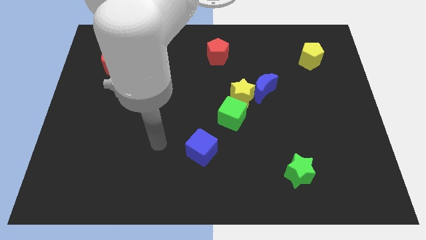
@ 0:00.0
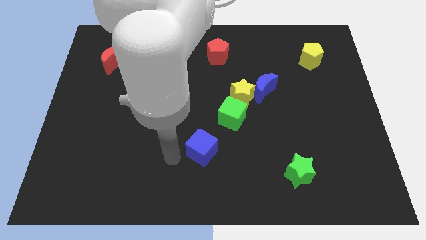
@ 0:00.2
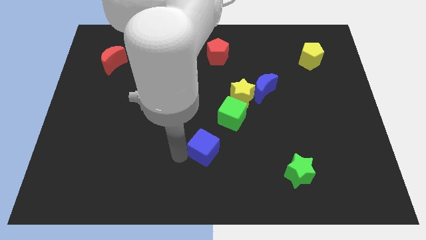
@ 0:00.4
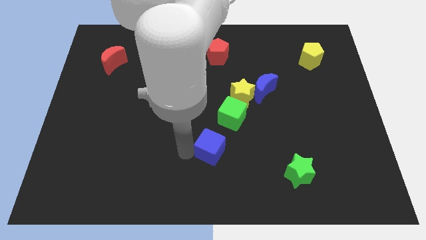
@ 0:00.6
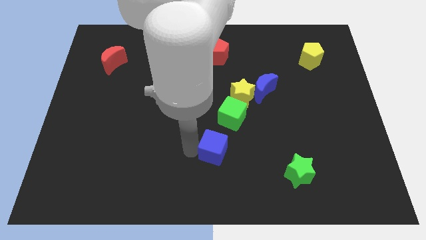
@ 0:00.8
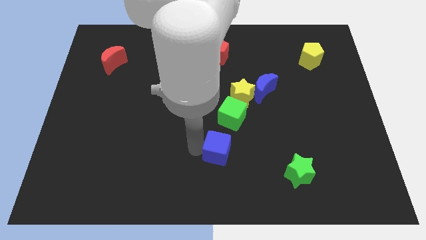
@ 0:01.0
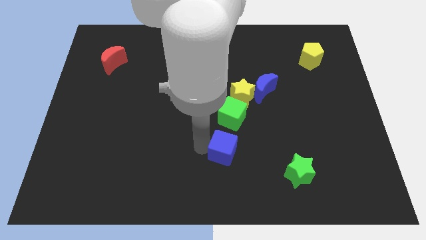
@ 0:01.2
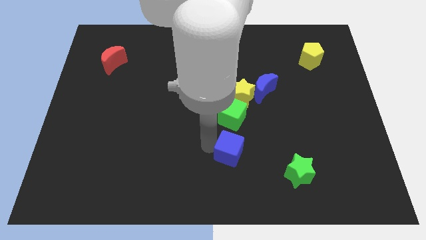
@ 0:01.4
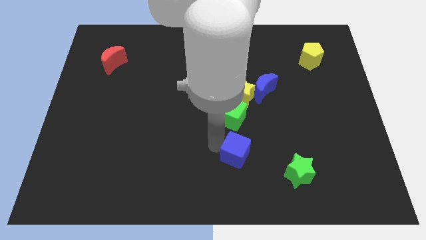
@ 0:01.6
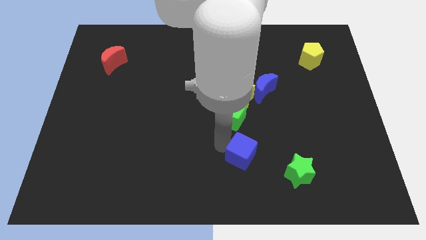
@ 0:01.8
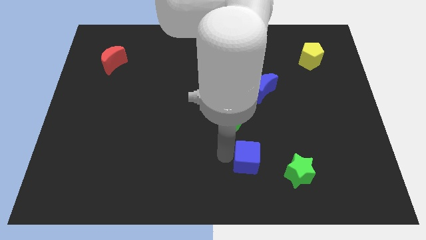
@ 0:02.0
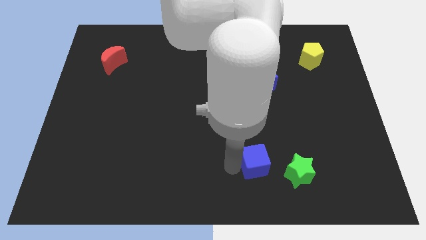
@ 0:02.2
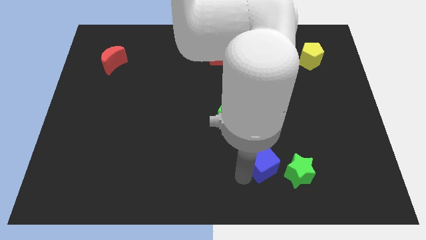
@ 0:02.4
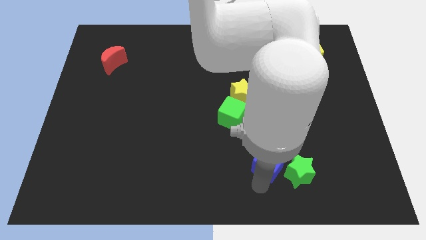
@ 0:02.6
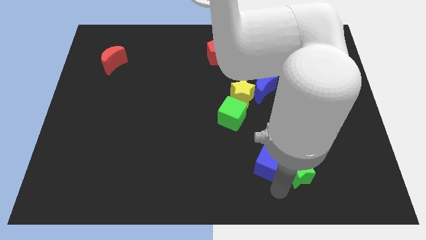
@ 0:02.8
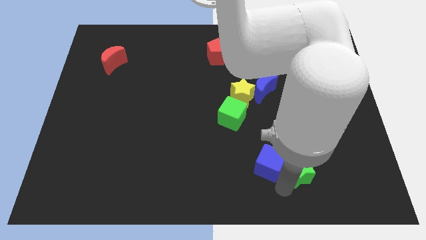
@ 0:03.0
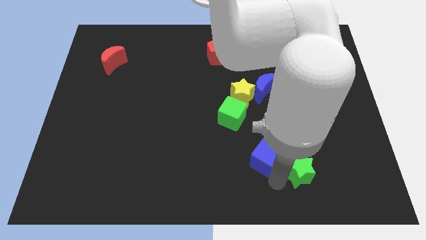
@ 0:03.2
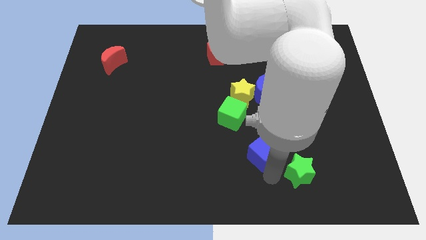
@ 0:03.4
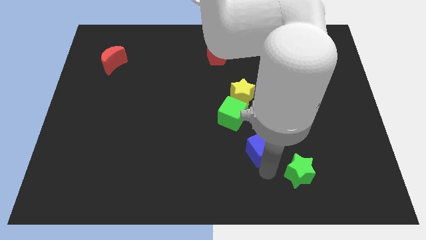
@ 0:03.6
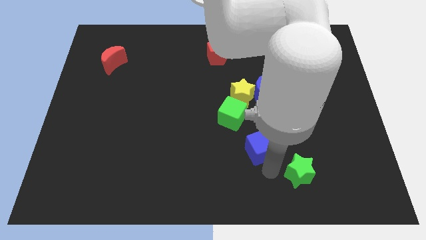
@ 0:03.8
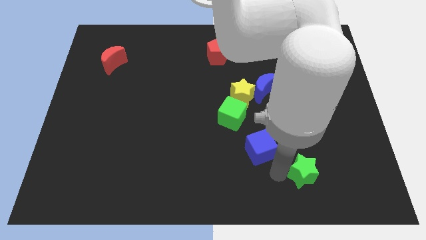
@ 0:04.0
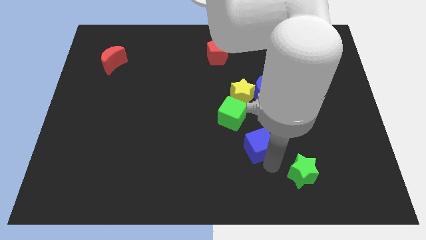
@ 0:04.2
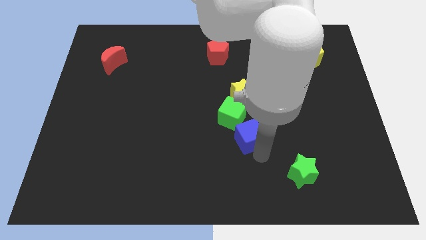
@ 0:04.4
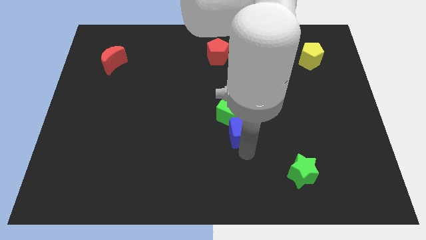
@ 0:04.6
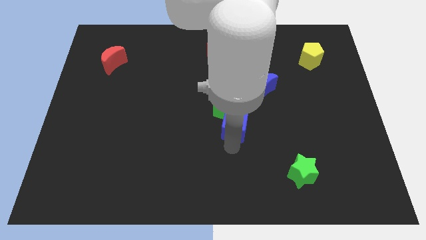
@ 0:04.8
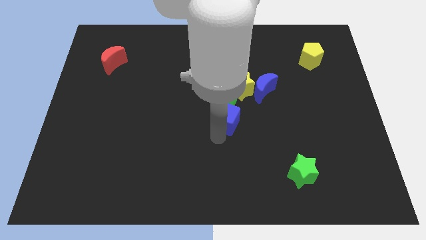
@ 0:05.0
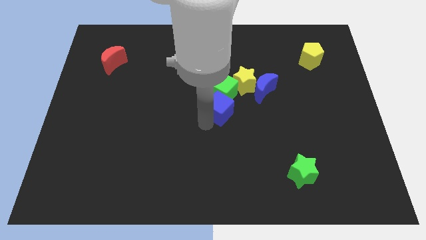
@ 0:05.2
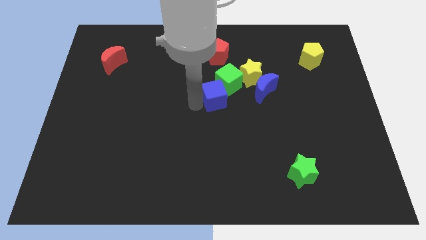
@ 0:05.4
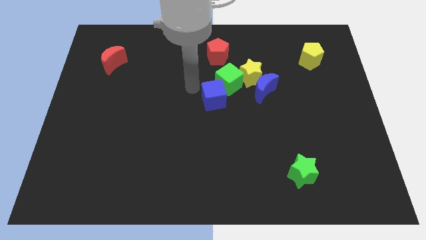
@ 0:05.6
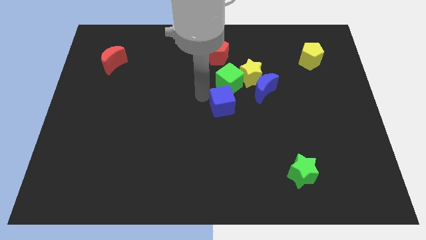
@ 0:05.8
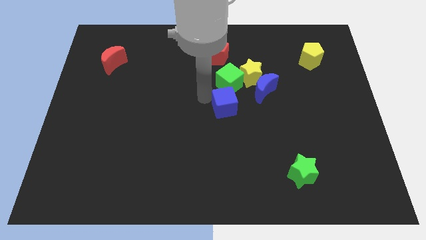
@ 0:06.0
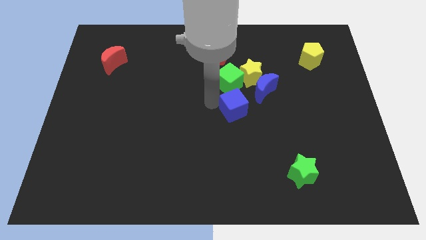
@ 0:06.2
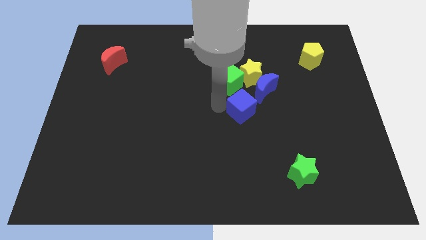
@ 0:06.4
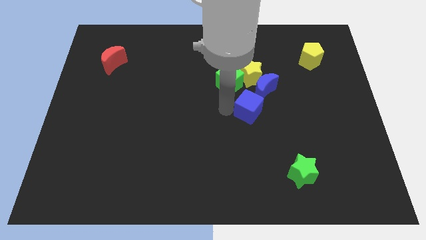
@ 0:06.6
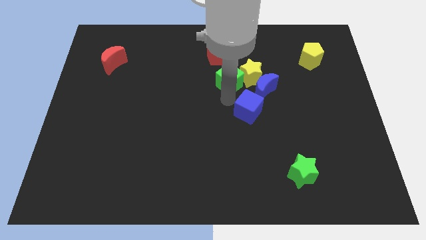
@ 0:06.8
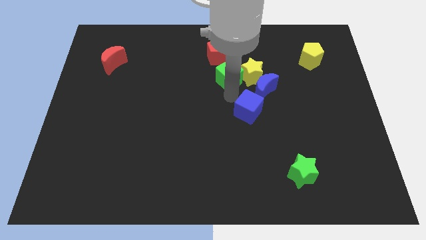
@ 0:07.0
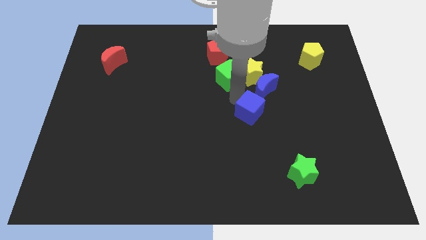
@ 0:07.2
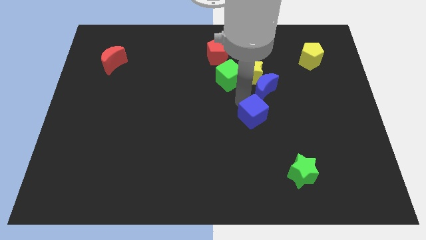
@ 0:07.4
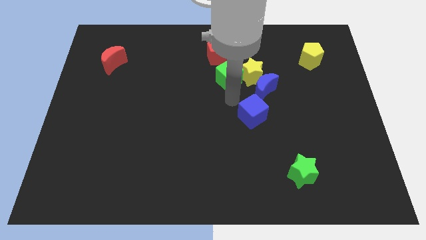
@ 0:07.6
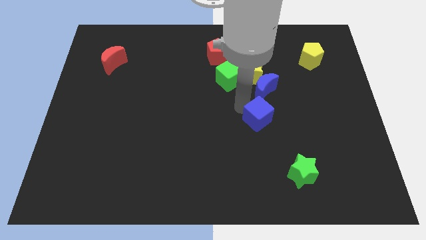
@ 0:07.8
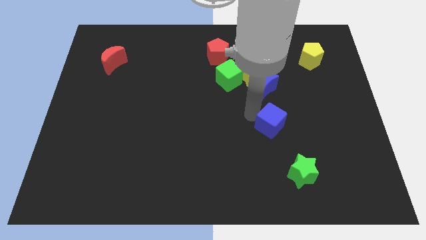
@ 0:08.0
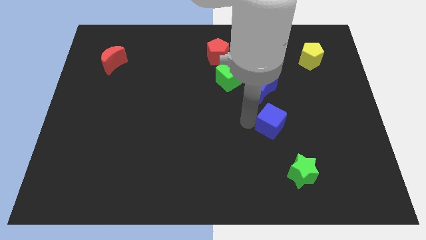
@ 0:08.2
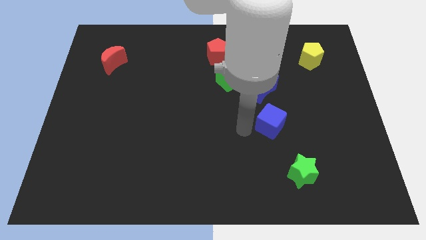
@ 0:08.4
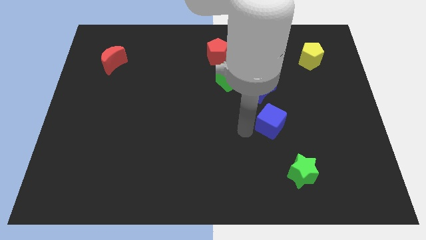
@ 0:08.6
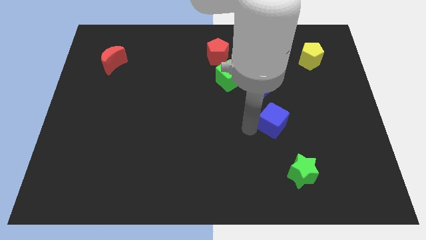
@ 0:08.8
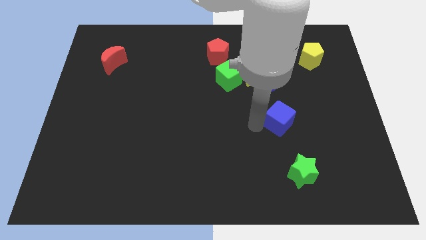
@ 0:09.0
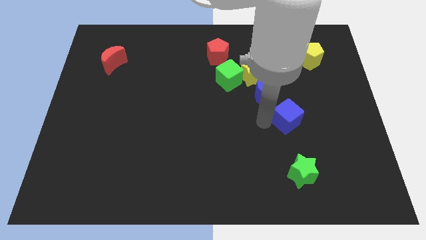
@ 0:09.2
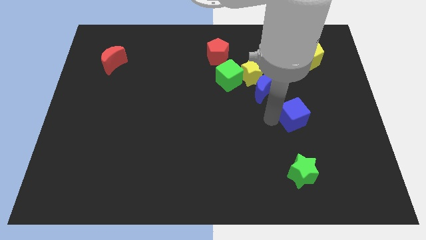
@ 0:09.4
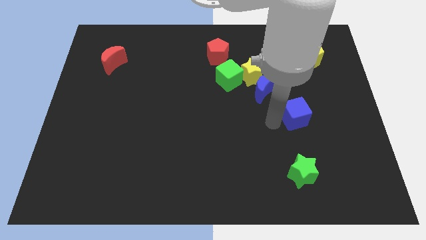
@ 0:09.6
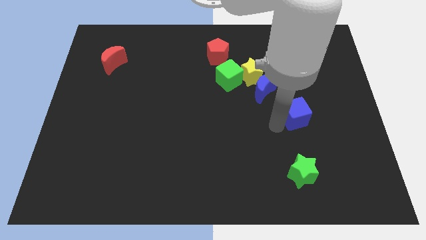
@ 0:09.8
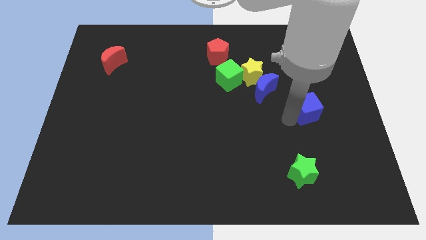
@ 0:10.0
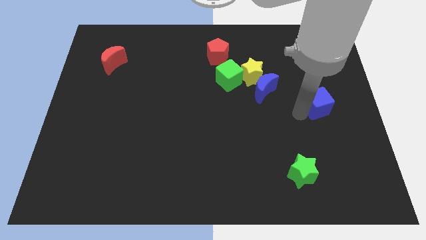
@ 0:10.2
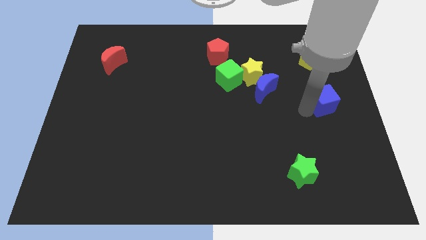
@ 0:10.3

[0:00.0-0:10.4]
move the blue cube to the center right
